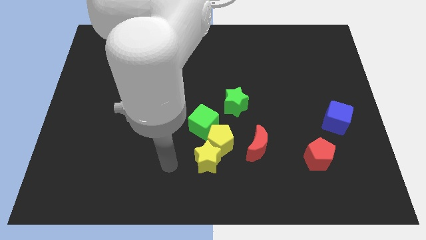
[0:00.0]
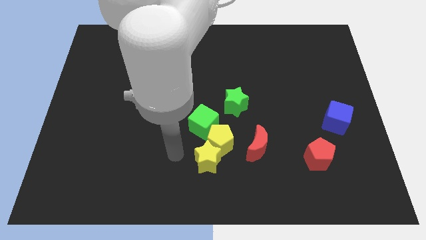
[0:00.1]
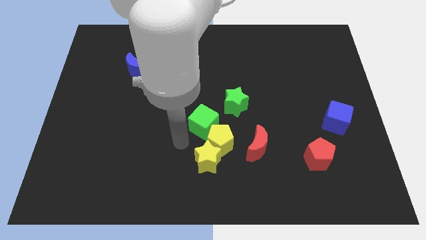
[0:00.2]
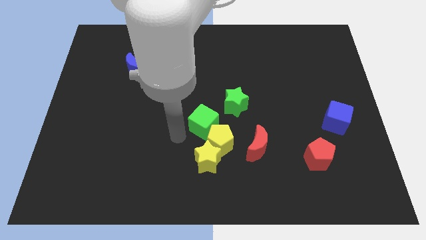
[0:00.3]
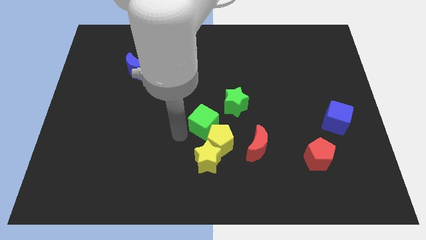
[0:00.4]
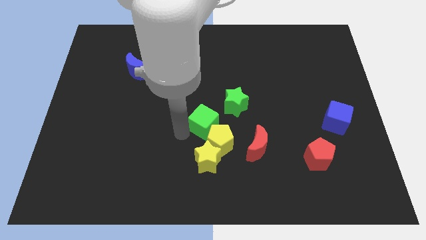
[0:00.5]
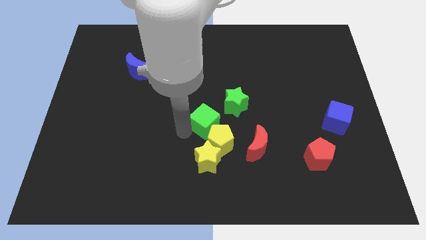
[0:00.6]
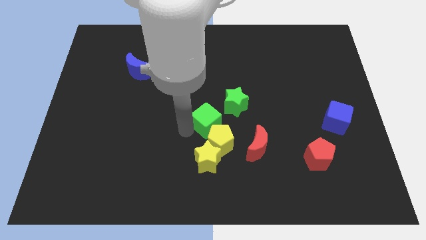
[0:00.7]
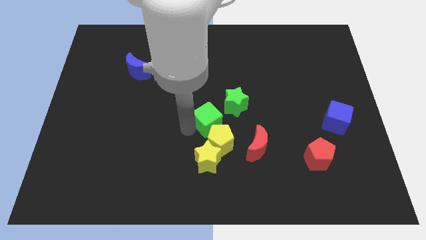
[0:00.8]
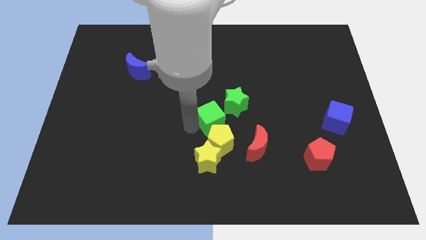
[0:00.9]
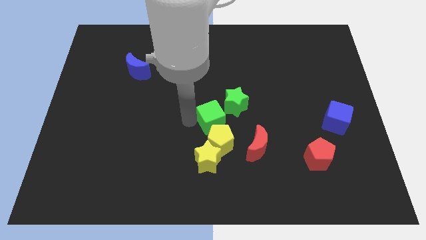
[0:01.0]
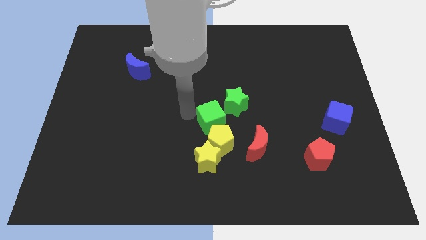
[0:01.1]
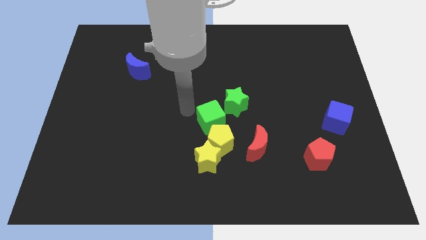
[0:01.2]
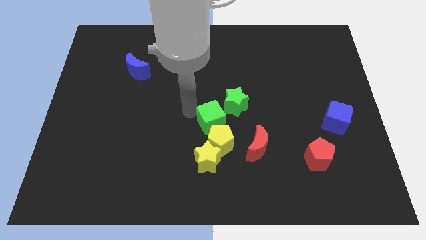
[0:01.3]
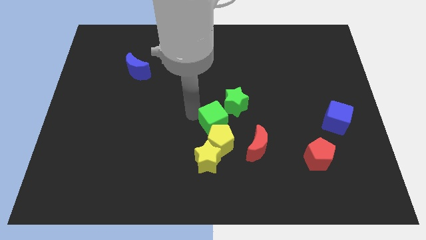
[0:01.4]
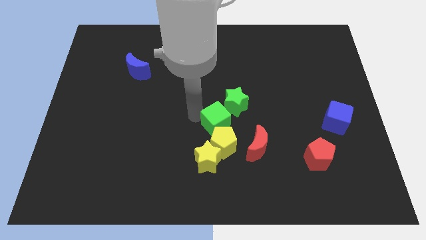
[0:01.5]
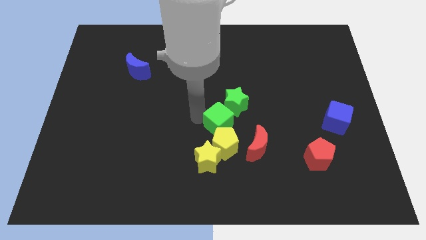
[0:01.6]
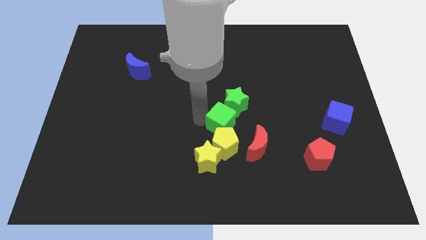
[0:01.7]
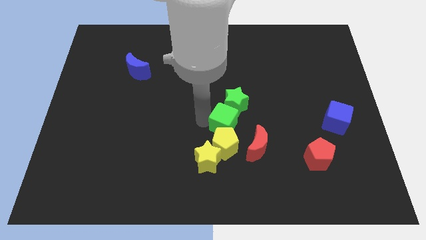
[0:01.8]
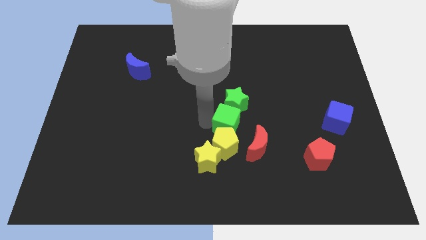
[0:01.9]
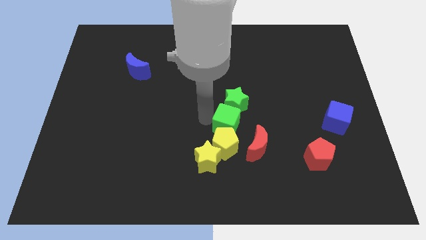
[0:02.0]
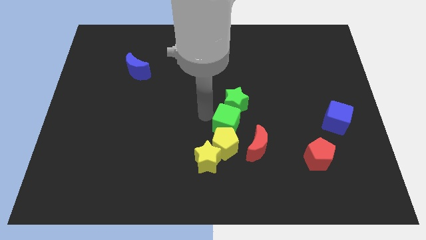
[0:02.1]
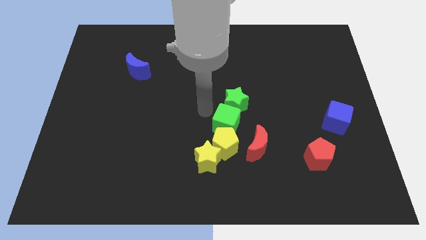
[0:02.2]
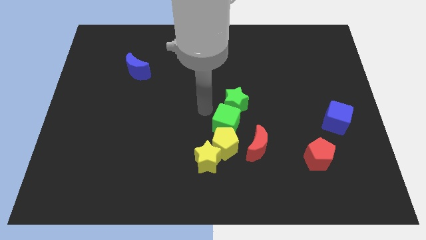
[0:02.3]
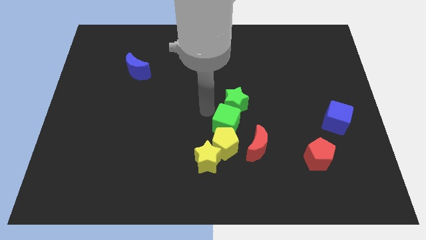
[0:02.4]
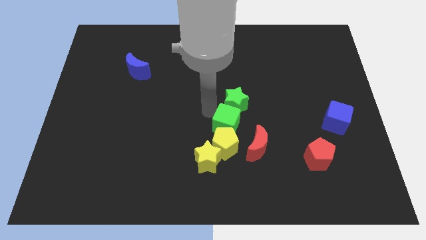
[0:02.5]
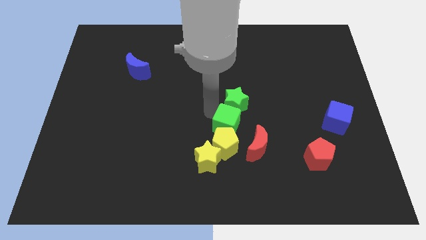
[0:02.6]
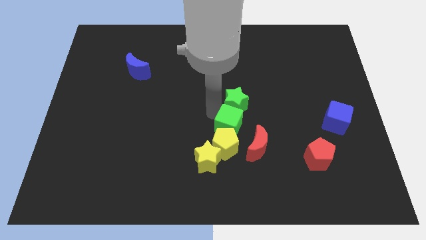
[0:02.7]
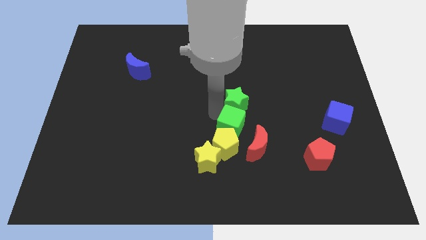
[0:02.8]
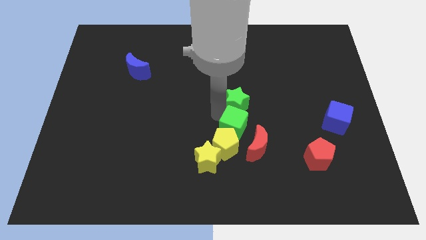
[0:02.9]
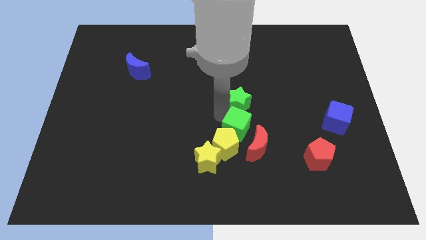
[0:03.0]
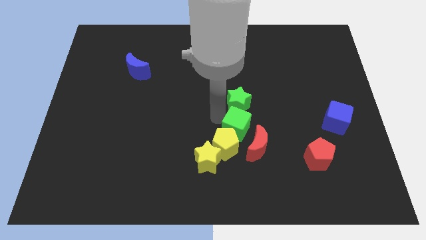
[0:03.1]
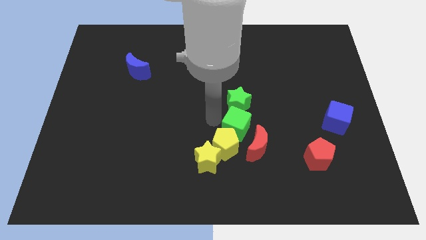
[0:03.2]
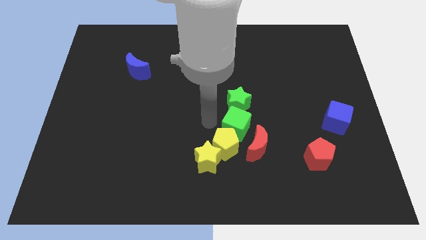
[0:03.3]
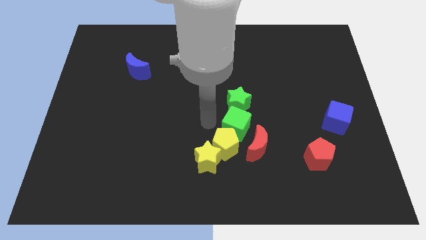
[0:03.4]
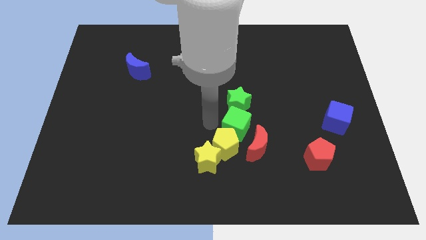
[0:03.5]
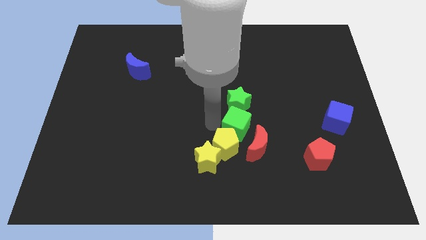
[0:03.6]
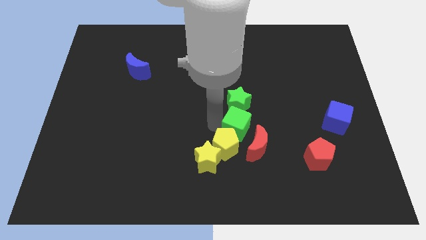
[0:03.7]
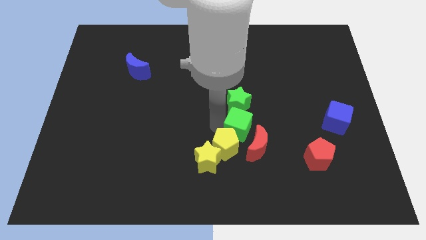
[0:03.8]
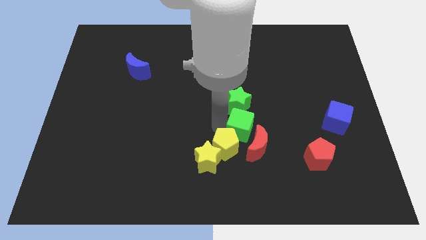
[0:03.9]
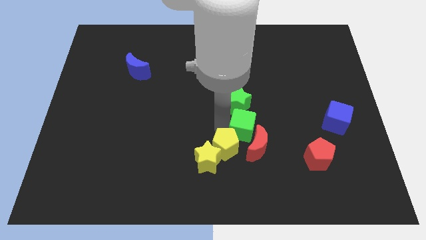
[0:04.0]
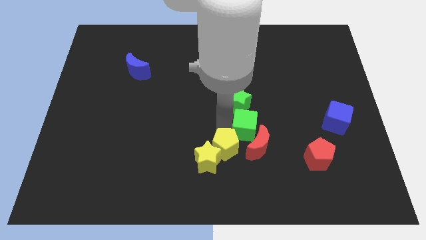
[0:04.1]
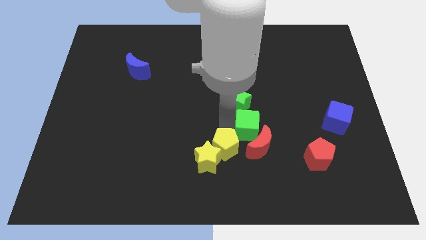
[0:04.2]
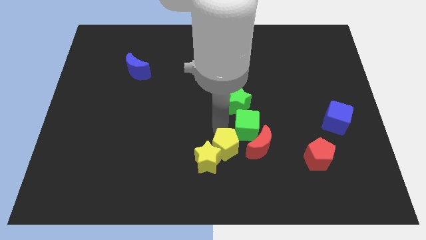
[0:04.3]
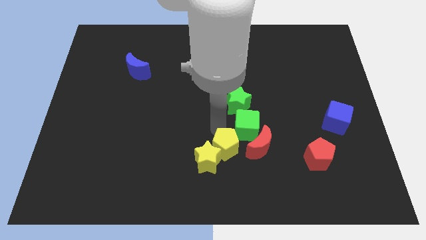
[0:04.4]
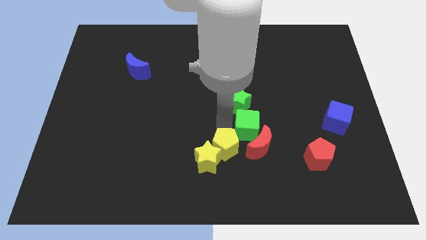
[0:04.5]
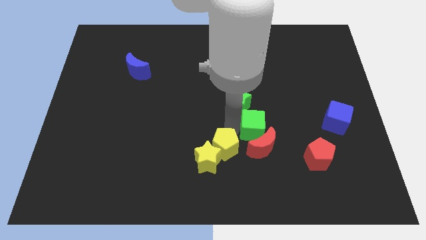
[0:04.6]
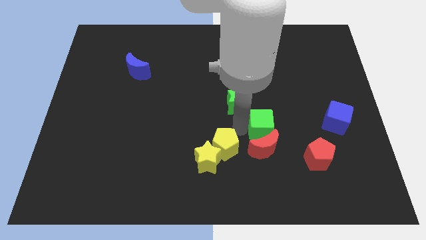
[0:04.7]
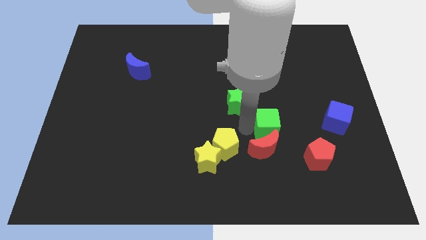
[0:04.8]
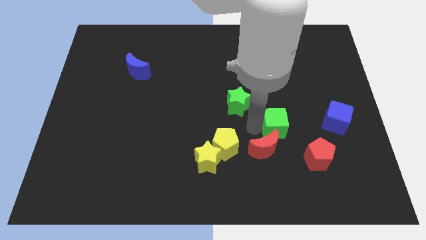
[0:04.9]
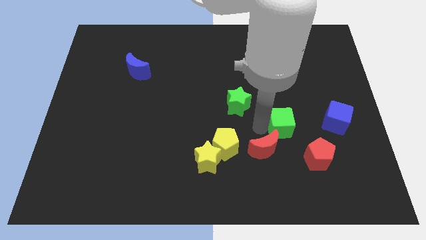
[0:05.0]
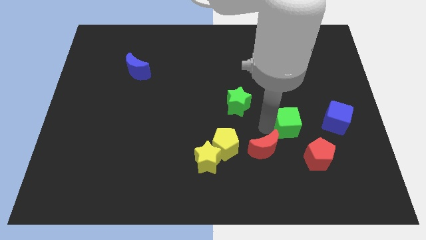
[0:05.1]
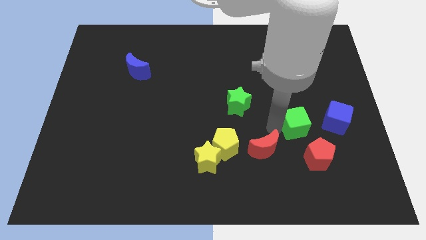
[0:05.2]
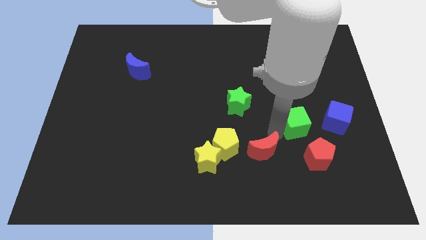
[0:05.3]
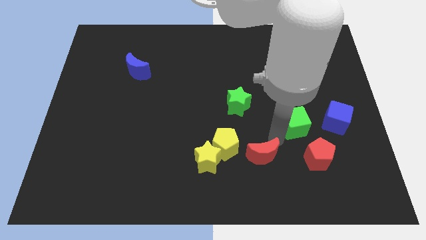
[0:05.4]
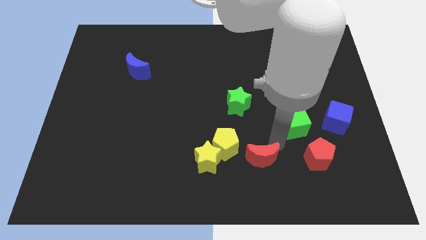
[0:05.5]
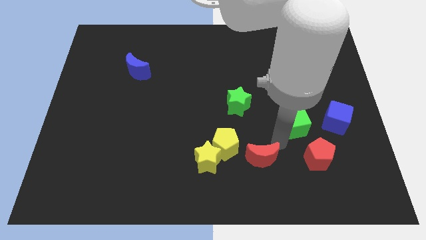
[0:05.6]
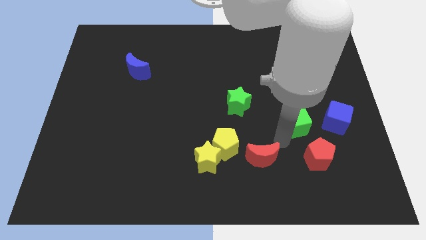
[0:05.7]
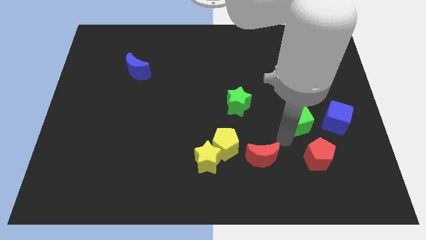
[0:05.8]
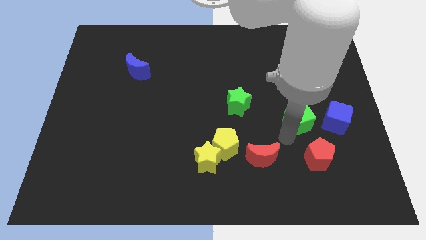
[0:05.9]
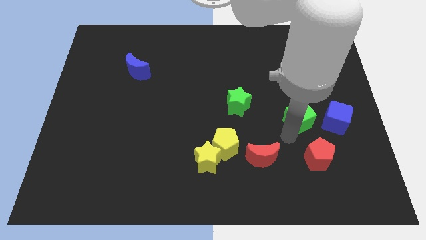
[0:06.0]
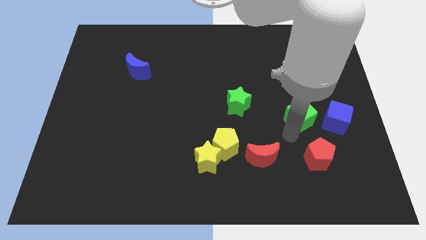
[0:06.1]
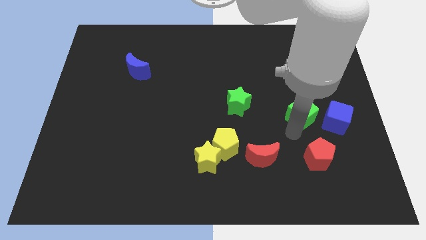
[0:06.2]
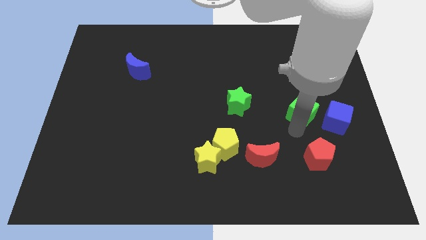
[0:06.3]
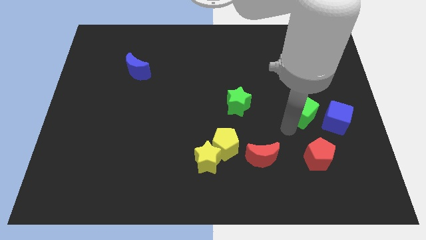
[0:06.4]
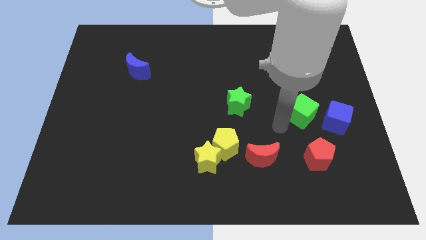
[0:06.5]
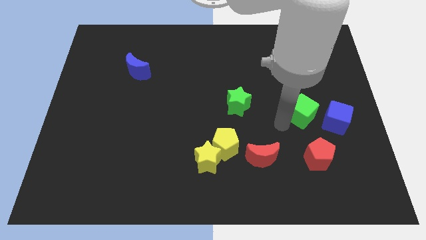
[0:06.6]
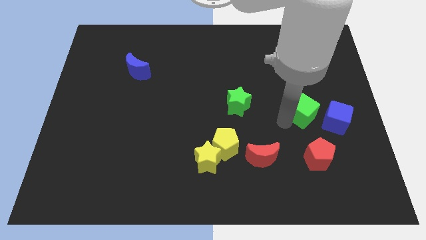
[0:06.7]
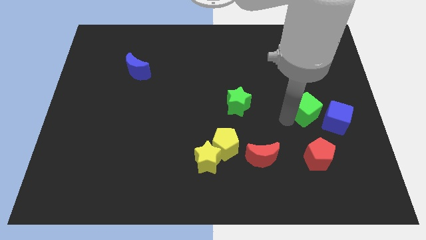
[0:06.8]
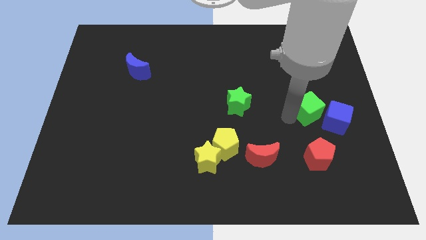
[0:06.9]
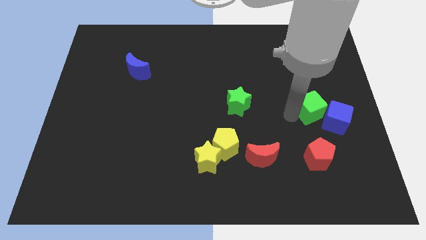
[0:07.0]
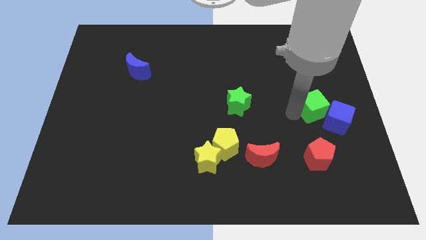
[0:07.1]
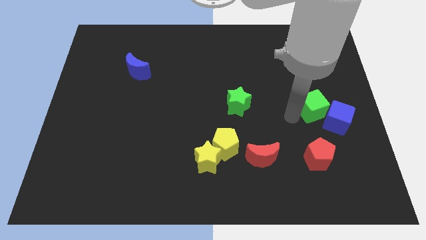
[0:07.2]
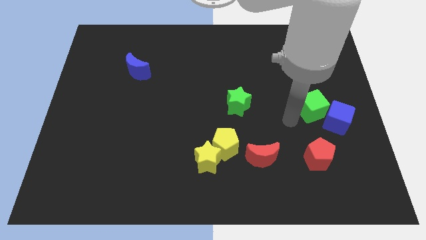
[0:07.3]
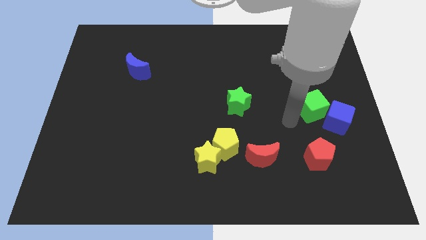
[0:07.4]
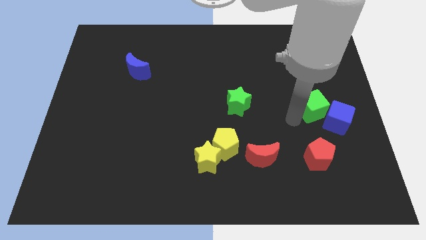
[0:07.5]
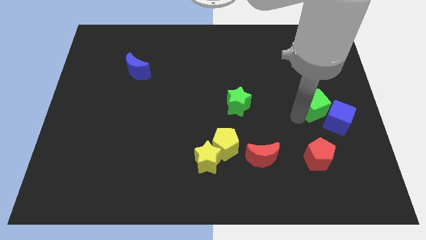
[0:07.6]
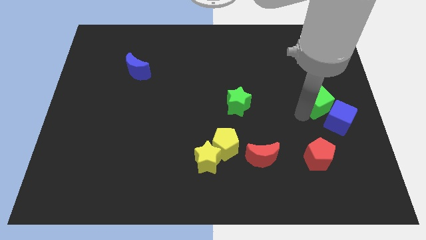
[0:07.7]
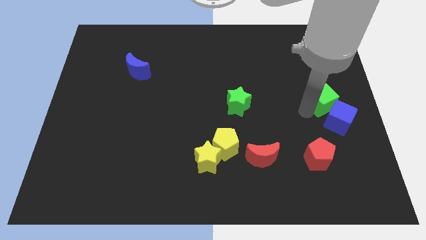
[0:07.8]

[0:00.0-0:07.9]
put the green cube to the center right
